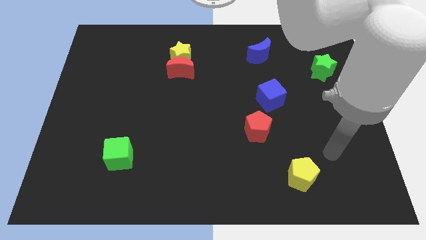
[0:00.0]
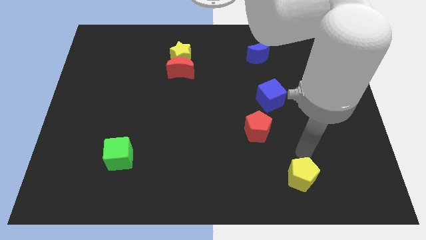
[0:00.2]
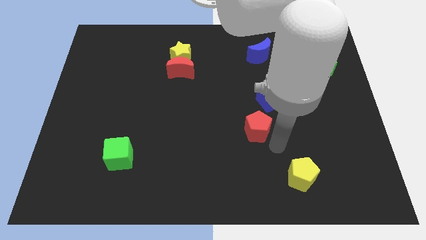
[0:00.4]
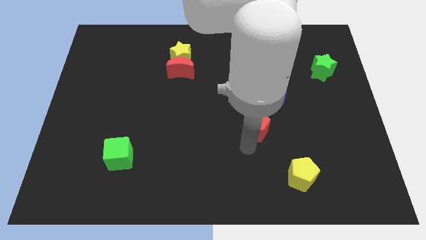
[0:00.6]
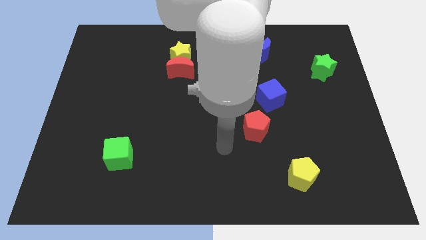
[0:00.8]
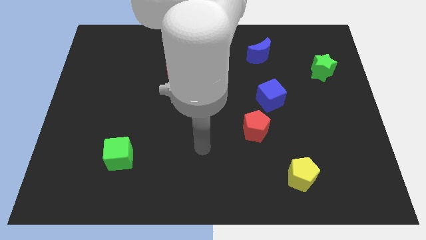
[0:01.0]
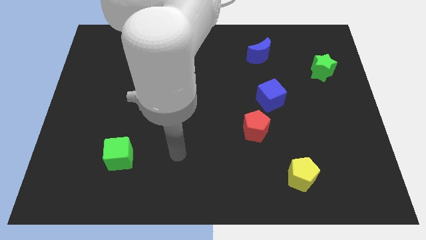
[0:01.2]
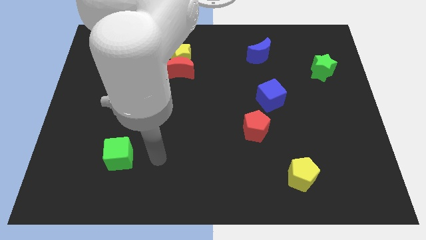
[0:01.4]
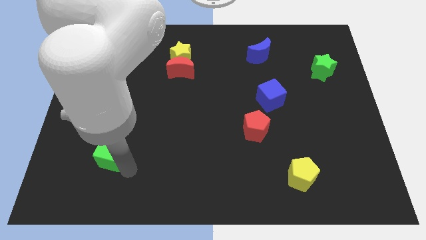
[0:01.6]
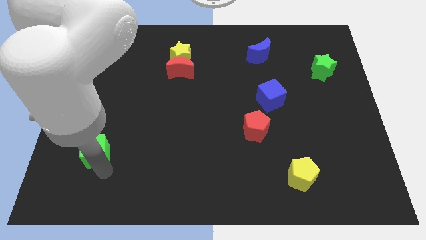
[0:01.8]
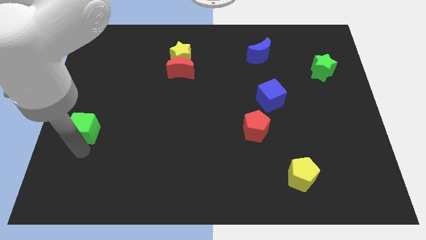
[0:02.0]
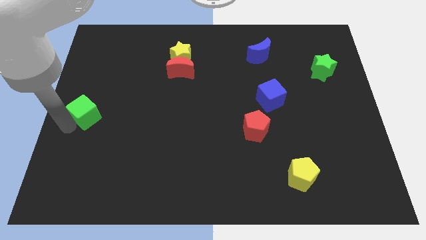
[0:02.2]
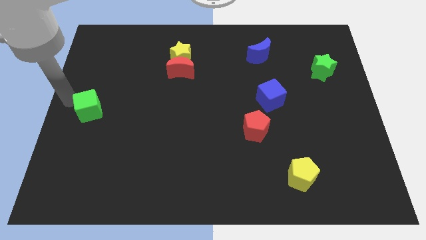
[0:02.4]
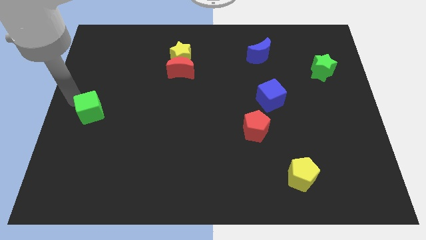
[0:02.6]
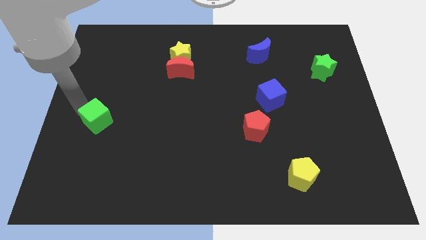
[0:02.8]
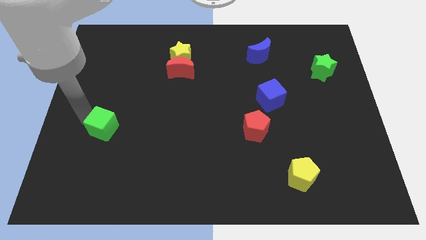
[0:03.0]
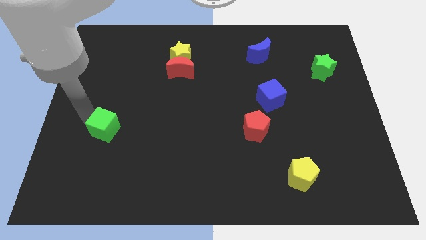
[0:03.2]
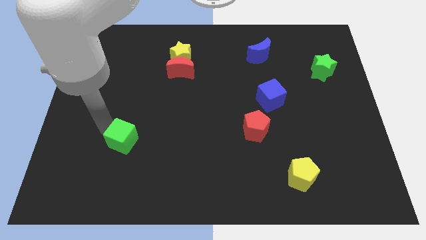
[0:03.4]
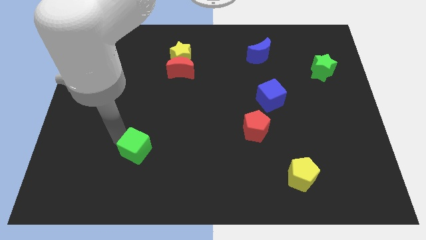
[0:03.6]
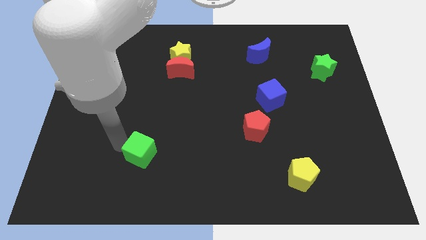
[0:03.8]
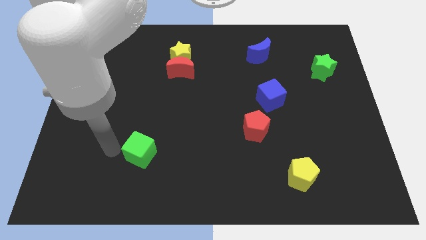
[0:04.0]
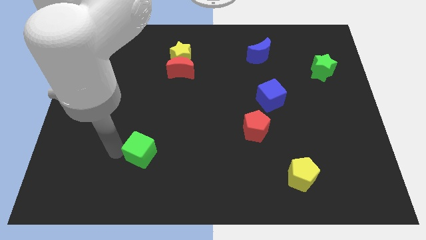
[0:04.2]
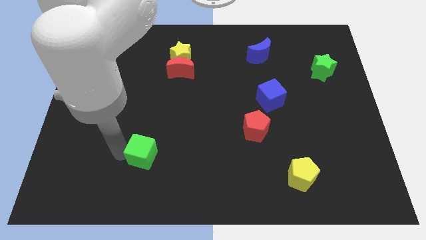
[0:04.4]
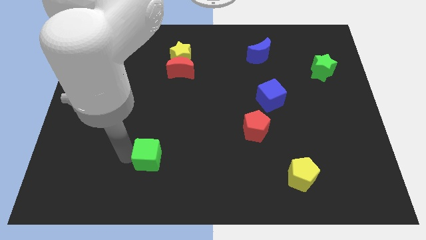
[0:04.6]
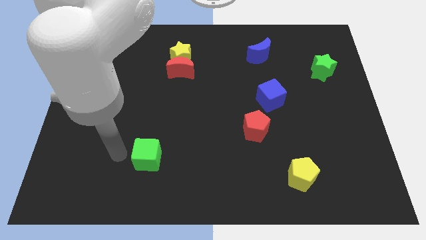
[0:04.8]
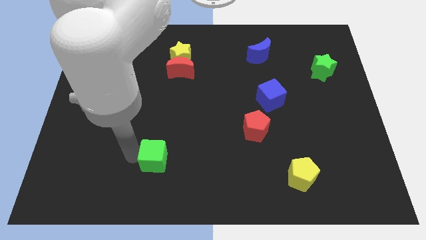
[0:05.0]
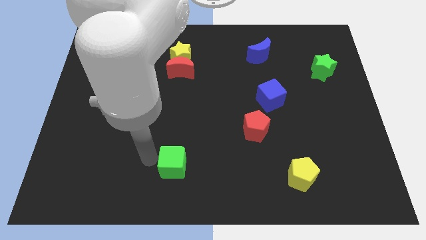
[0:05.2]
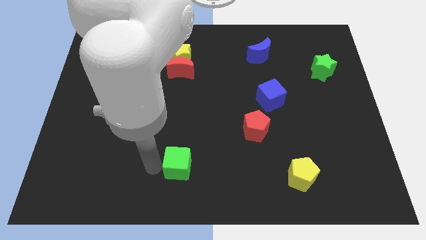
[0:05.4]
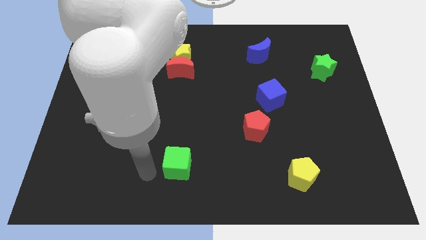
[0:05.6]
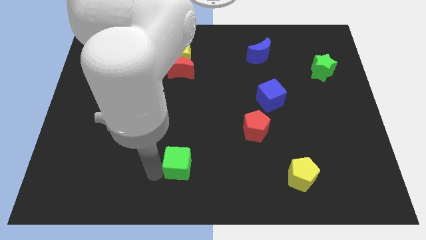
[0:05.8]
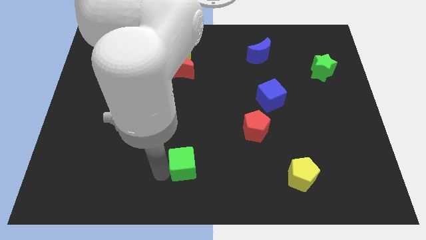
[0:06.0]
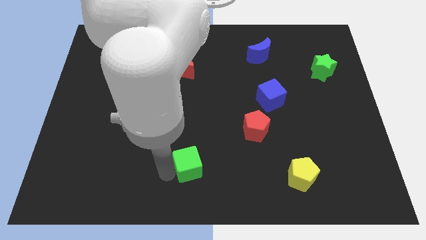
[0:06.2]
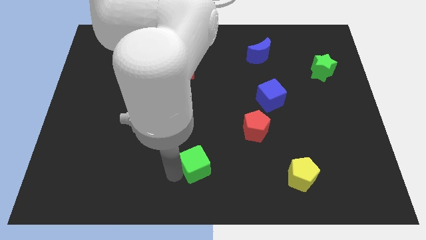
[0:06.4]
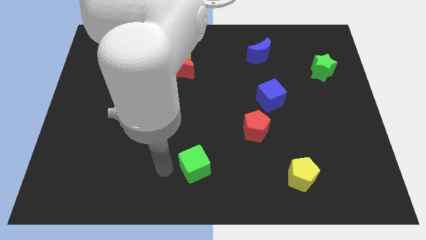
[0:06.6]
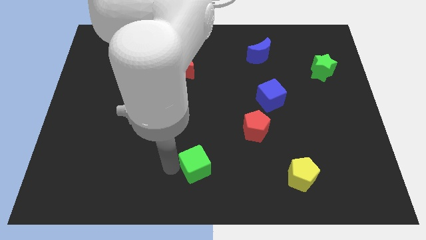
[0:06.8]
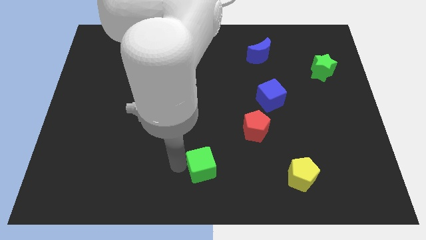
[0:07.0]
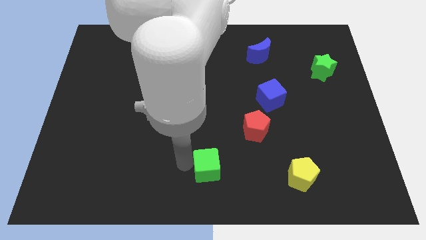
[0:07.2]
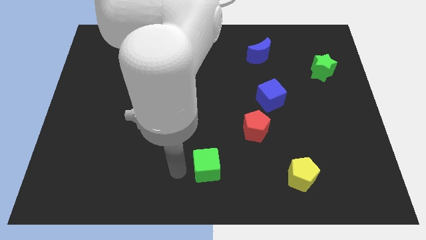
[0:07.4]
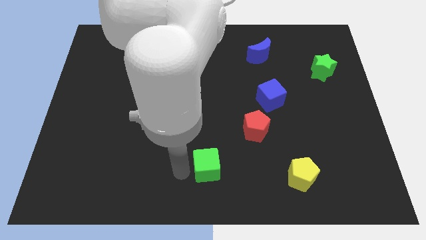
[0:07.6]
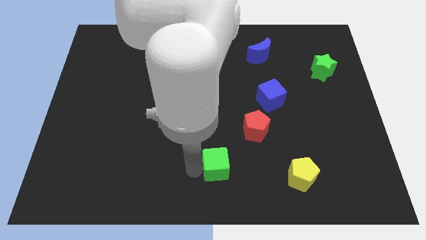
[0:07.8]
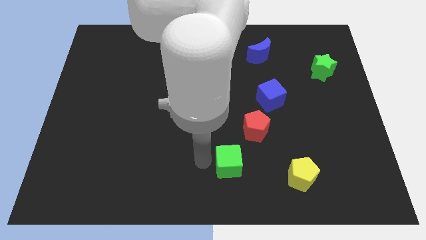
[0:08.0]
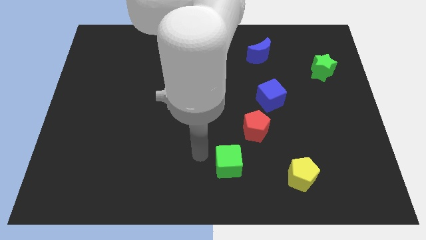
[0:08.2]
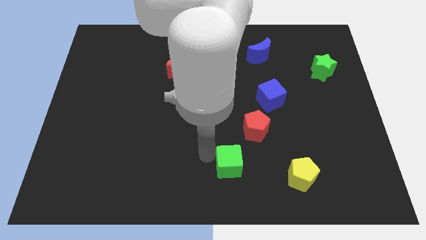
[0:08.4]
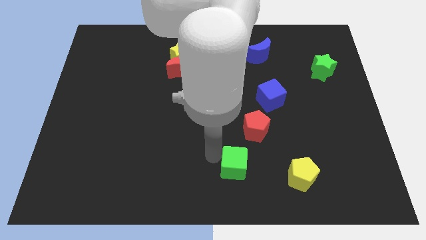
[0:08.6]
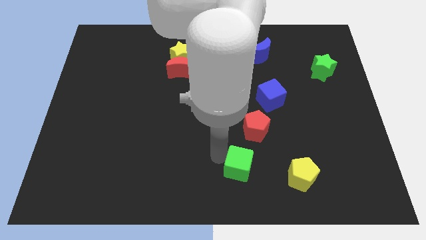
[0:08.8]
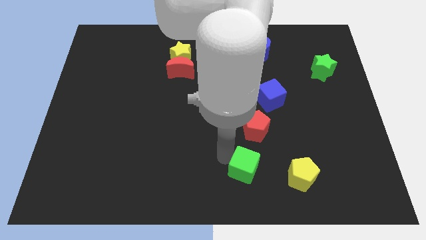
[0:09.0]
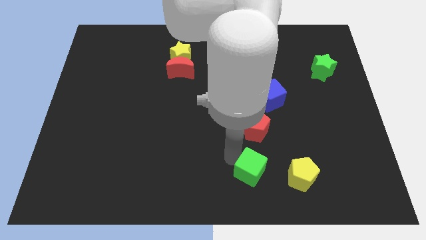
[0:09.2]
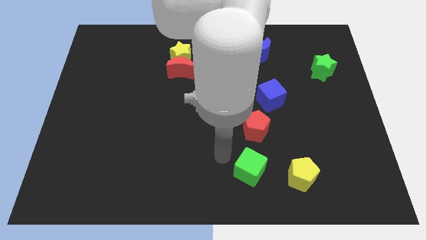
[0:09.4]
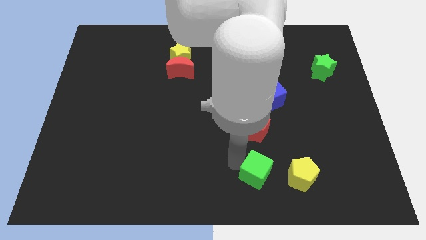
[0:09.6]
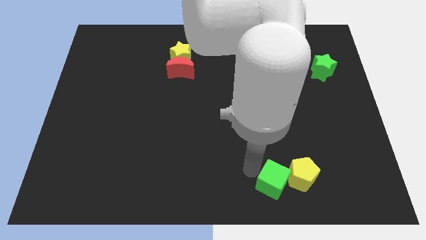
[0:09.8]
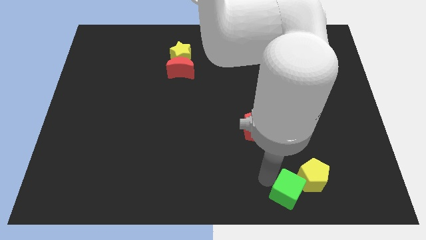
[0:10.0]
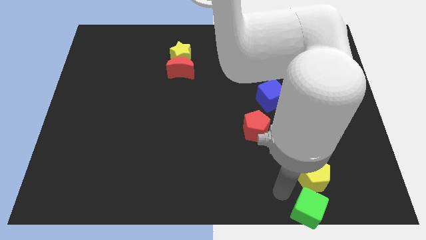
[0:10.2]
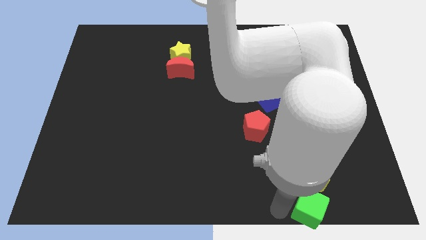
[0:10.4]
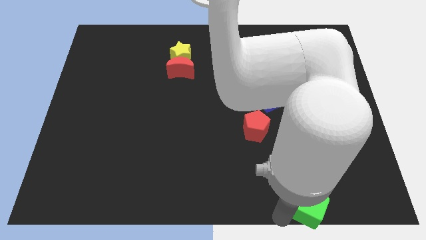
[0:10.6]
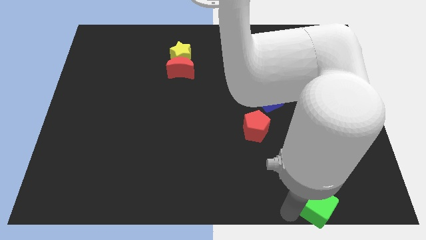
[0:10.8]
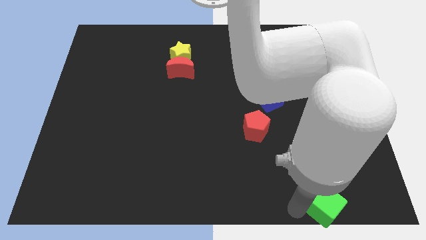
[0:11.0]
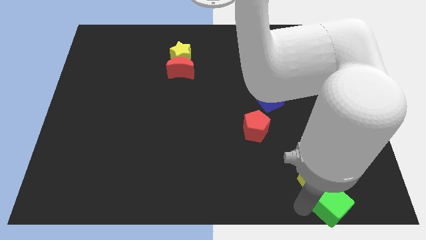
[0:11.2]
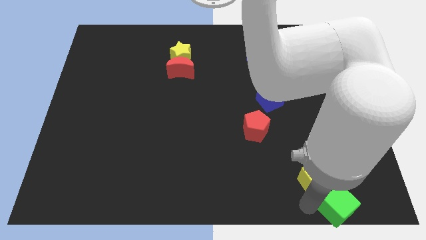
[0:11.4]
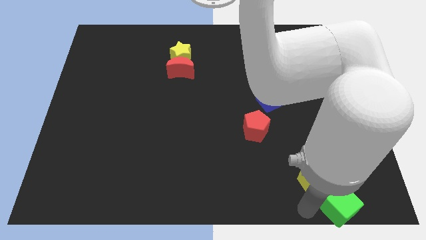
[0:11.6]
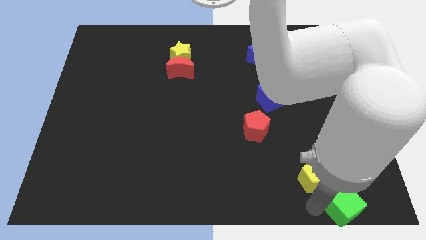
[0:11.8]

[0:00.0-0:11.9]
put the green cube to the bottom right of the board

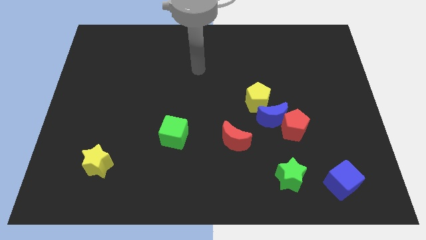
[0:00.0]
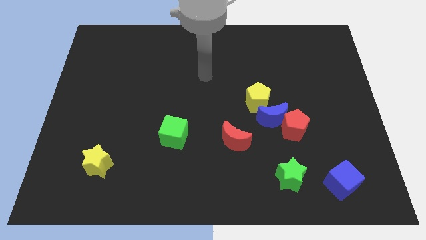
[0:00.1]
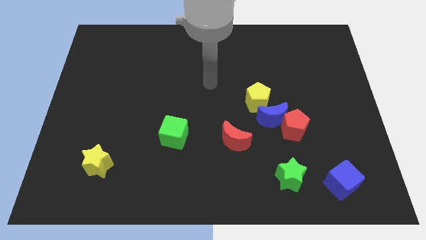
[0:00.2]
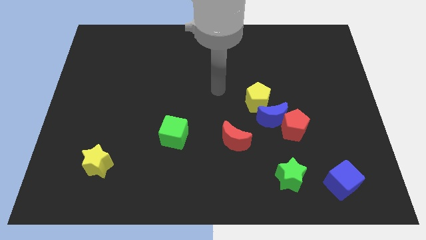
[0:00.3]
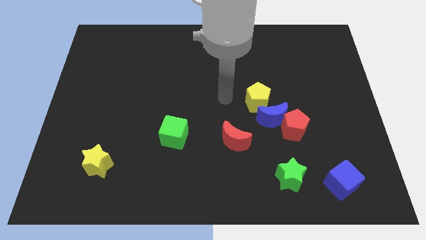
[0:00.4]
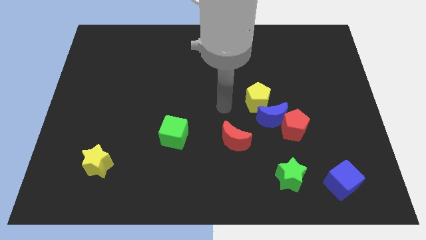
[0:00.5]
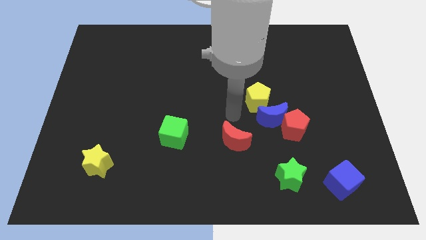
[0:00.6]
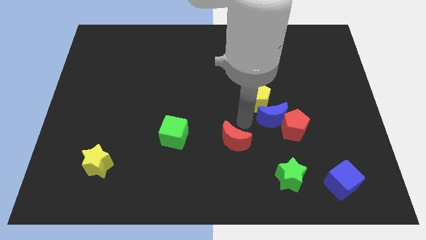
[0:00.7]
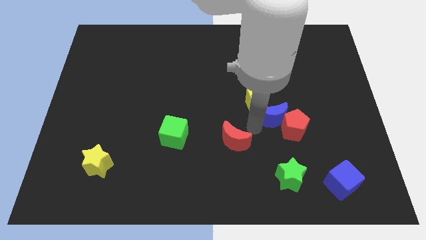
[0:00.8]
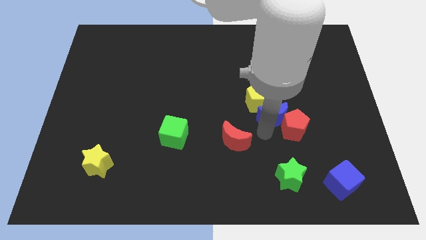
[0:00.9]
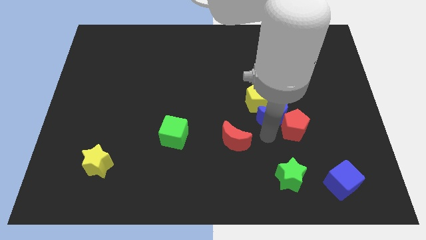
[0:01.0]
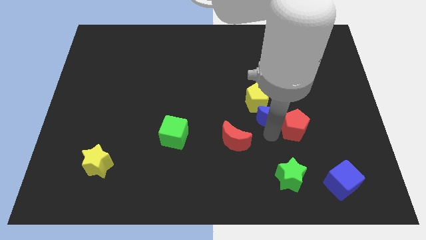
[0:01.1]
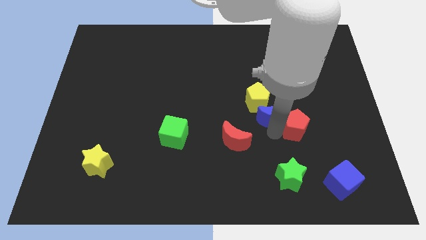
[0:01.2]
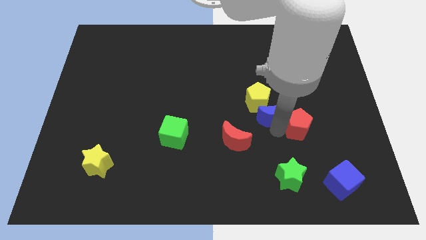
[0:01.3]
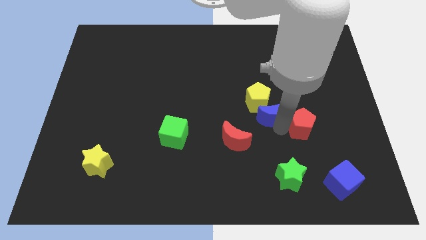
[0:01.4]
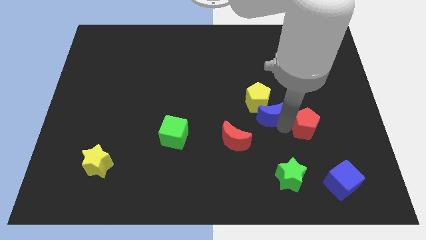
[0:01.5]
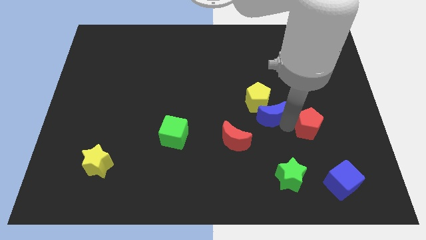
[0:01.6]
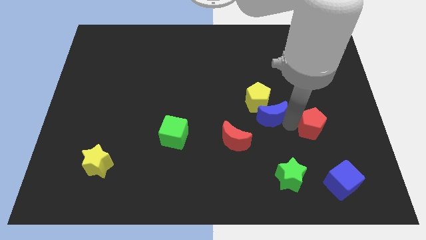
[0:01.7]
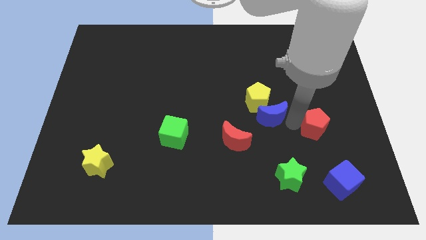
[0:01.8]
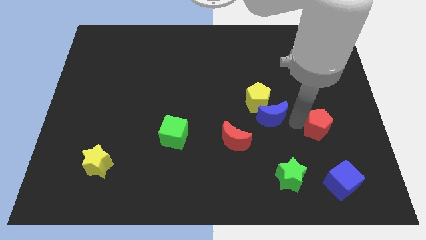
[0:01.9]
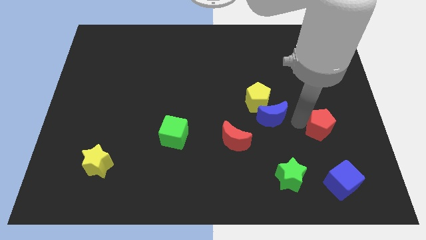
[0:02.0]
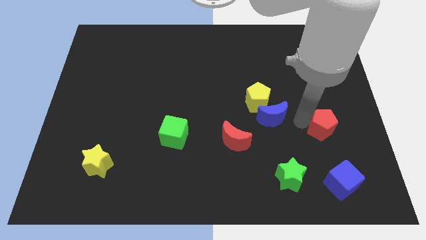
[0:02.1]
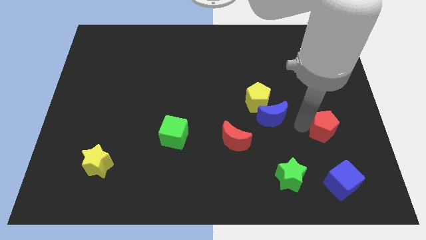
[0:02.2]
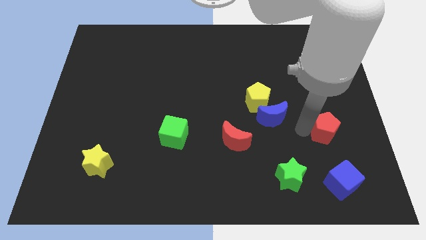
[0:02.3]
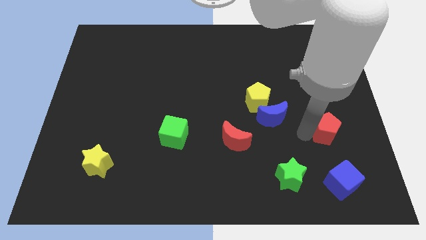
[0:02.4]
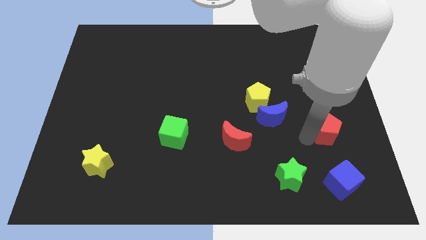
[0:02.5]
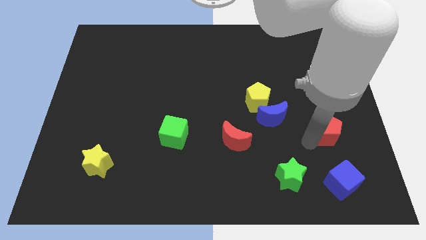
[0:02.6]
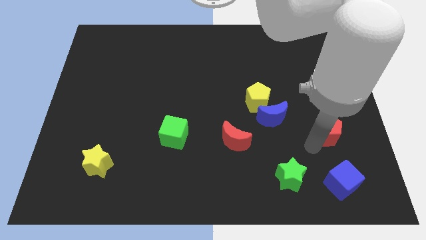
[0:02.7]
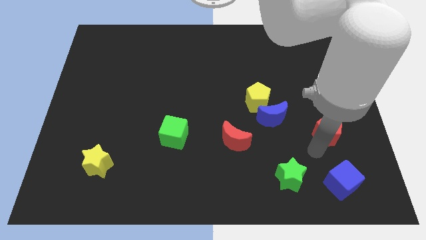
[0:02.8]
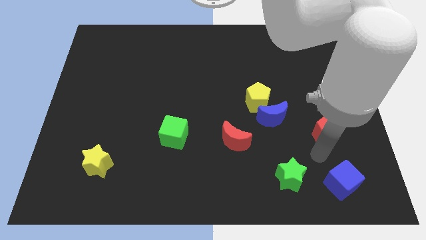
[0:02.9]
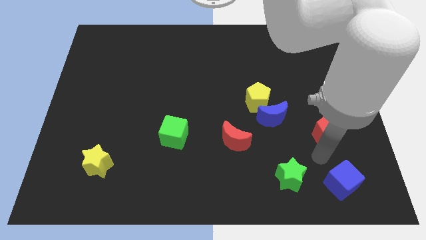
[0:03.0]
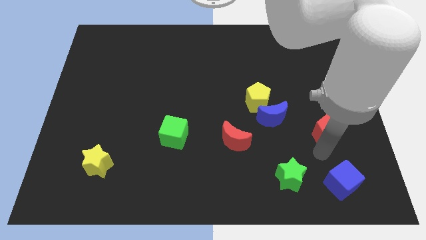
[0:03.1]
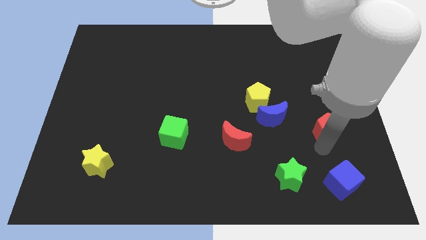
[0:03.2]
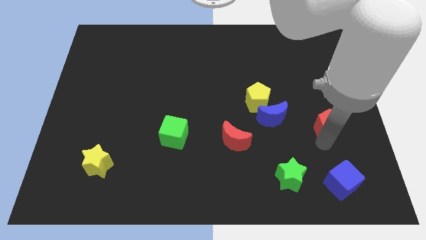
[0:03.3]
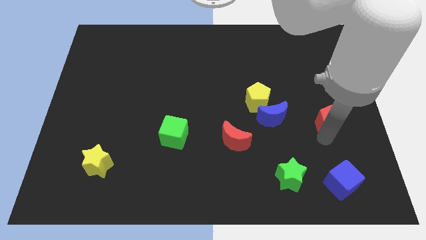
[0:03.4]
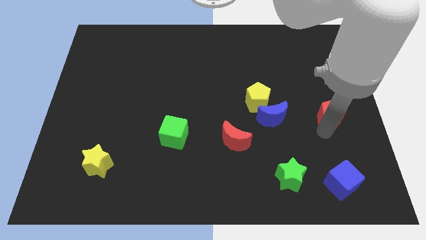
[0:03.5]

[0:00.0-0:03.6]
slide the red pentagon to the right side of the board
